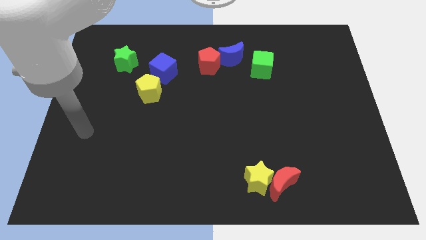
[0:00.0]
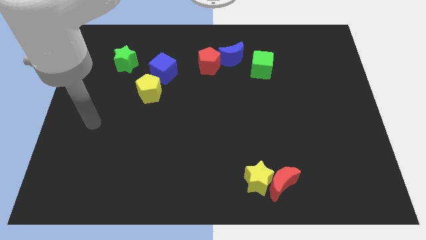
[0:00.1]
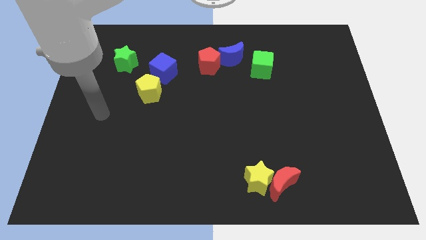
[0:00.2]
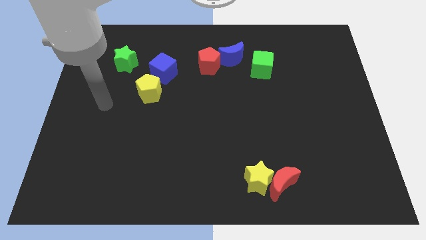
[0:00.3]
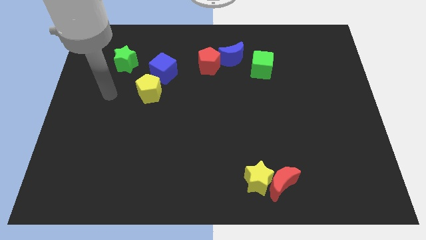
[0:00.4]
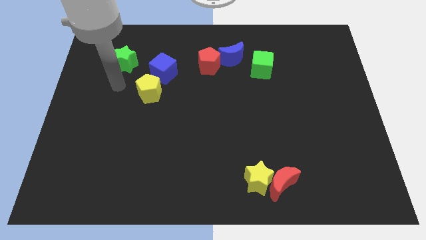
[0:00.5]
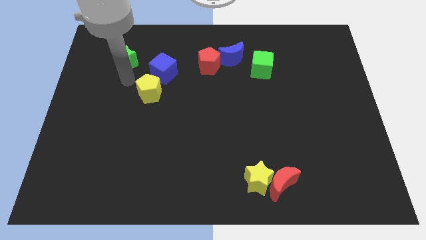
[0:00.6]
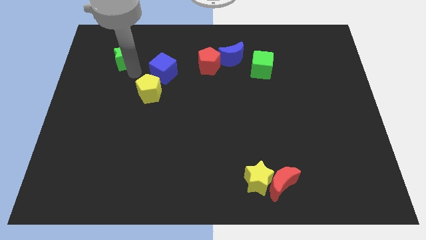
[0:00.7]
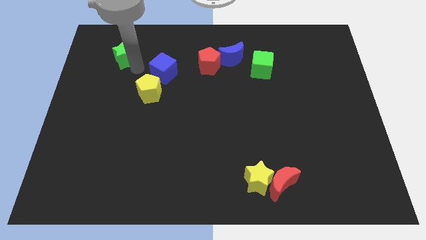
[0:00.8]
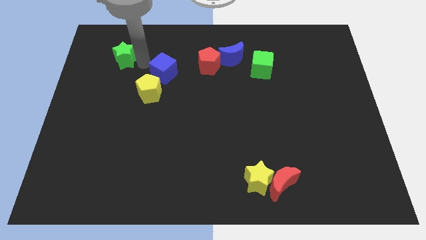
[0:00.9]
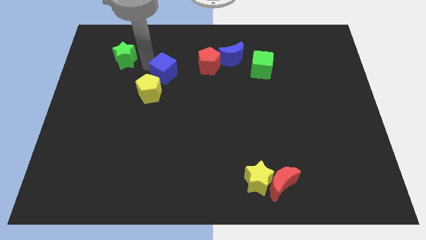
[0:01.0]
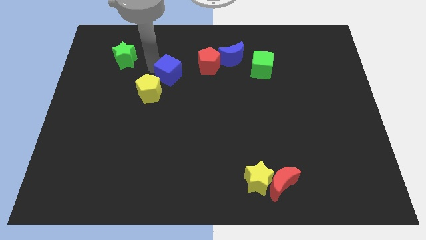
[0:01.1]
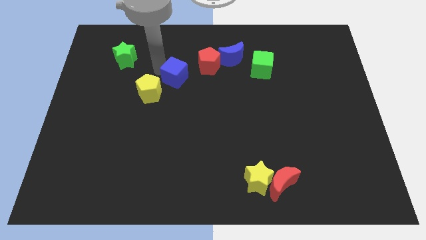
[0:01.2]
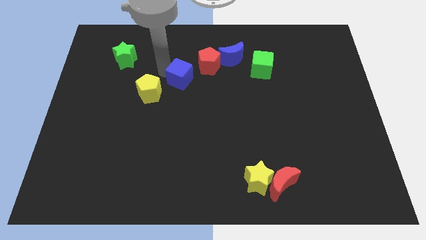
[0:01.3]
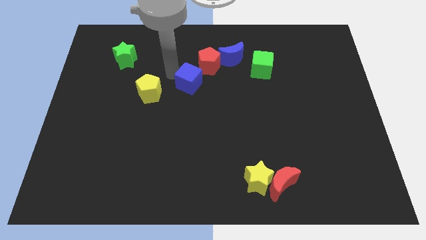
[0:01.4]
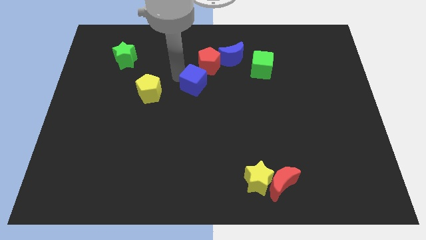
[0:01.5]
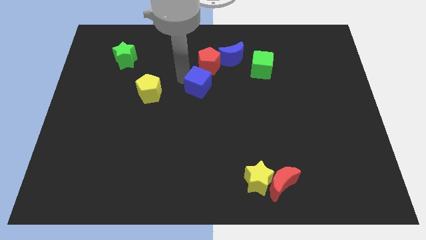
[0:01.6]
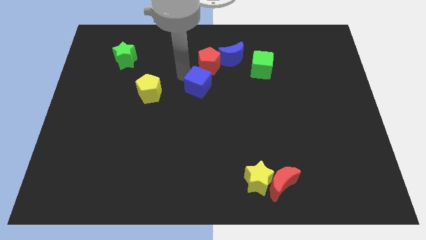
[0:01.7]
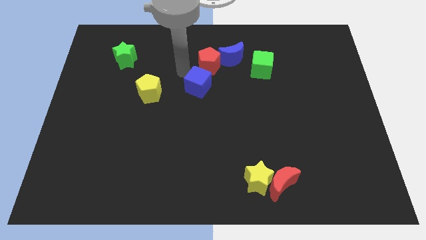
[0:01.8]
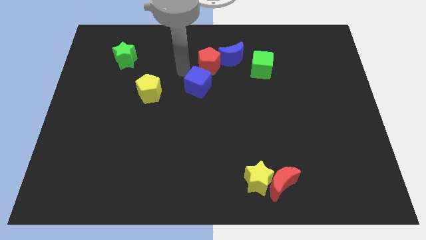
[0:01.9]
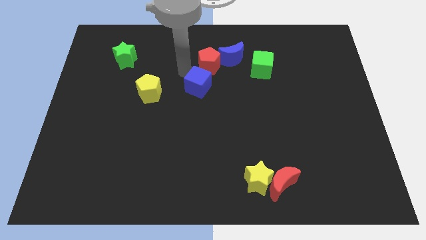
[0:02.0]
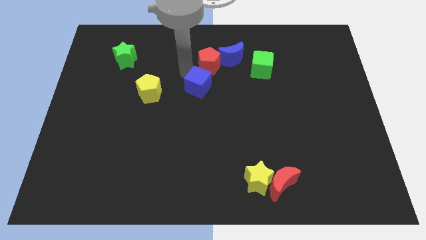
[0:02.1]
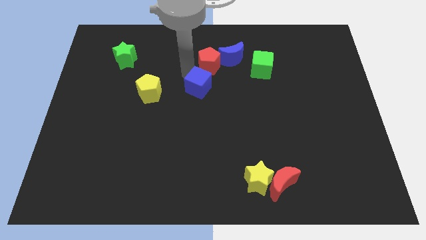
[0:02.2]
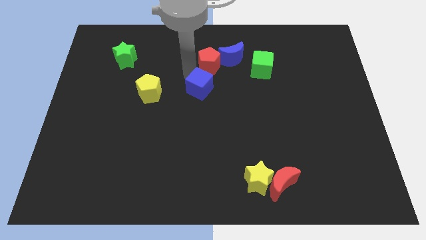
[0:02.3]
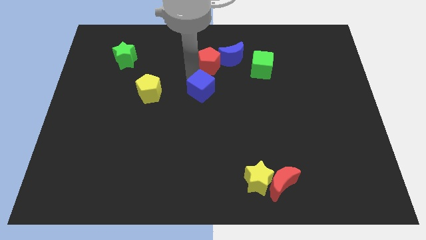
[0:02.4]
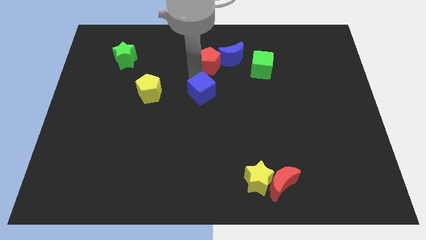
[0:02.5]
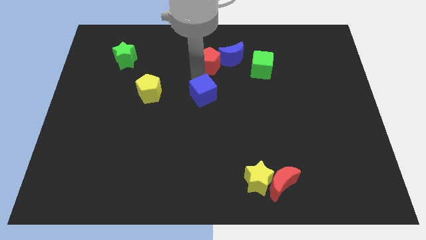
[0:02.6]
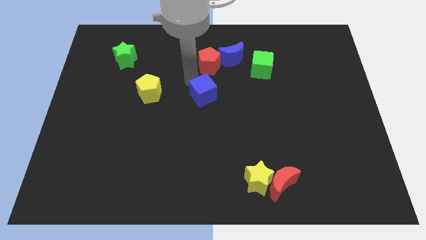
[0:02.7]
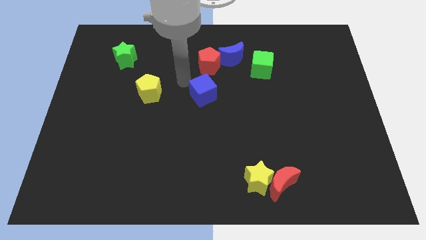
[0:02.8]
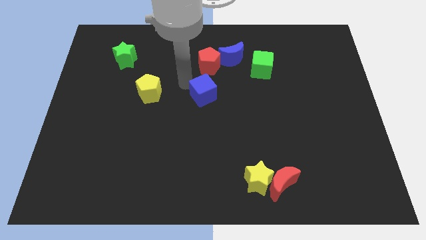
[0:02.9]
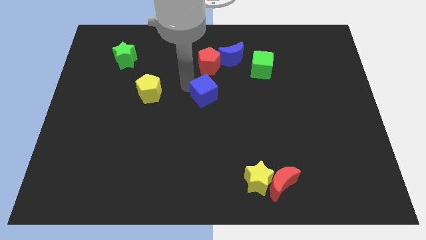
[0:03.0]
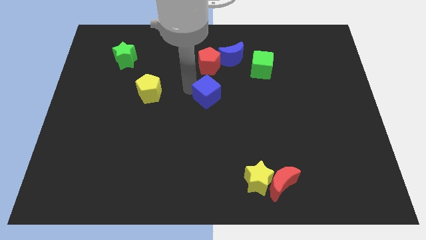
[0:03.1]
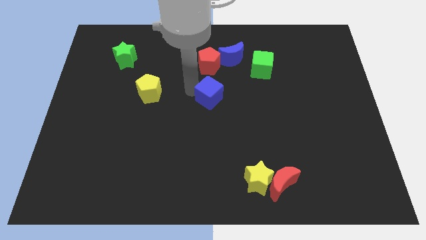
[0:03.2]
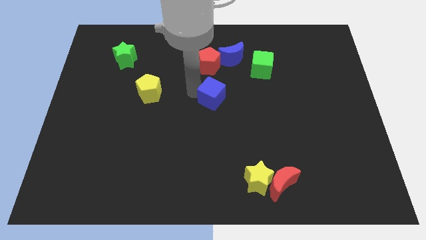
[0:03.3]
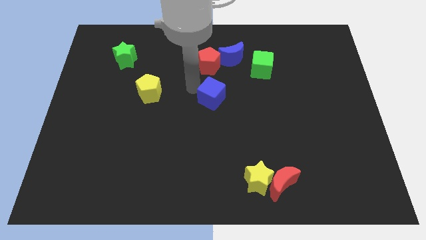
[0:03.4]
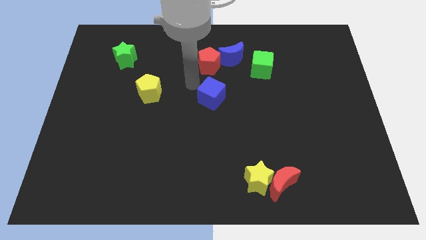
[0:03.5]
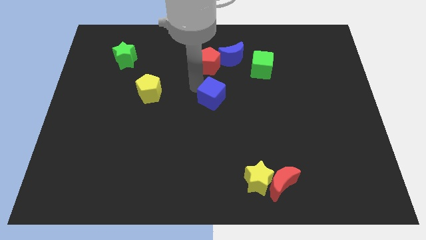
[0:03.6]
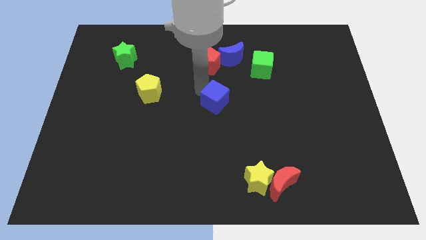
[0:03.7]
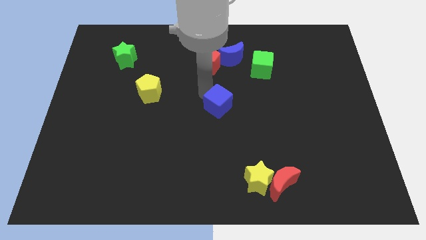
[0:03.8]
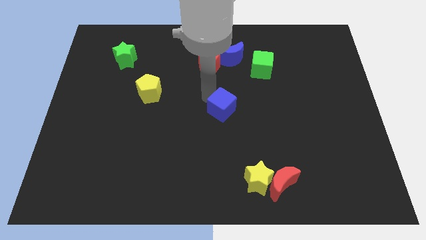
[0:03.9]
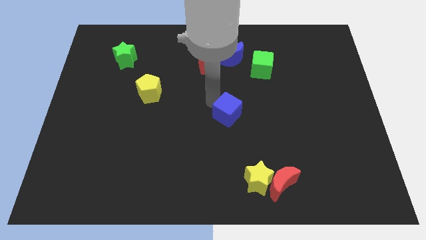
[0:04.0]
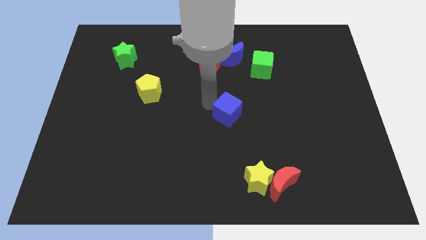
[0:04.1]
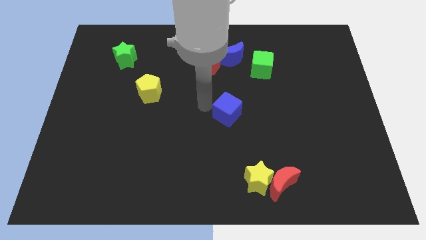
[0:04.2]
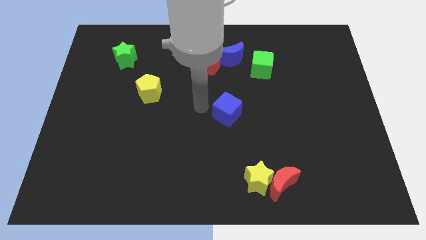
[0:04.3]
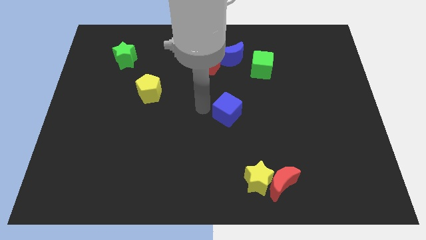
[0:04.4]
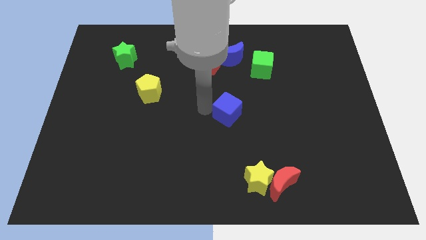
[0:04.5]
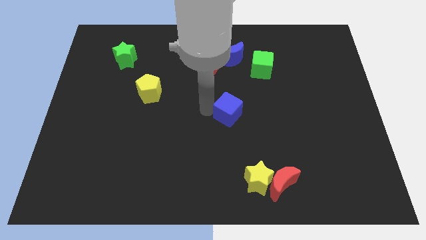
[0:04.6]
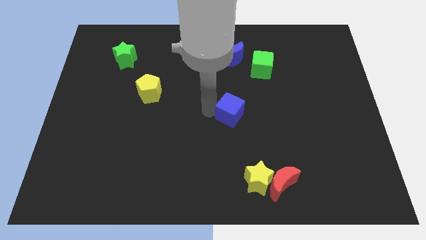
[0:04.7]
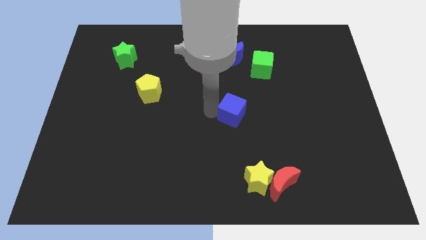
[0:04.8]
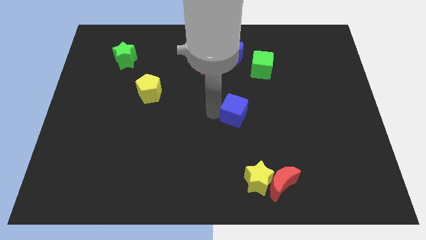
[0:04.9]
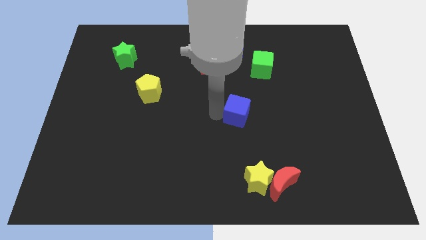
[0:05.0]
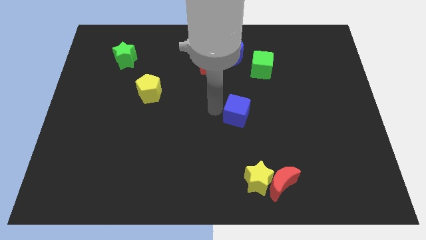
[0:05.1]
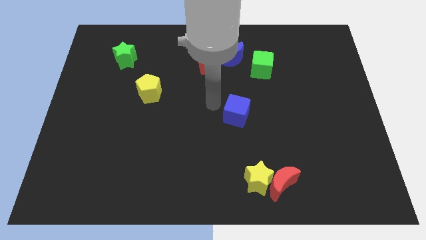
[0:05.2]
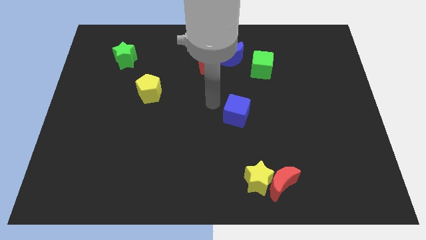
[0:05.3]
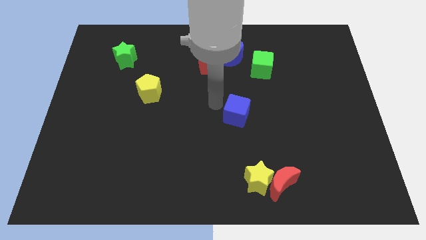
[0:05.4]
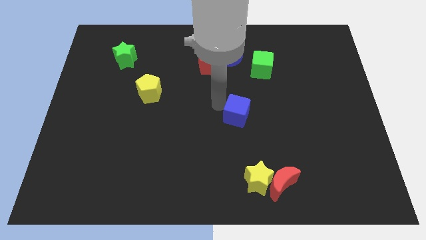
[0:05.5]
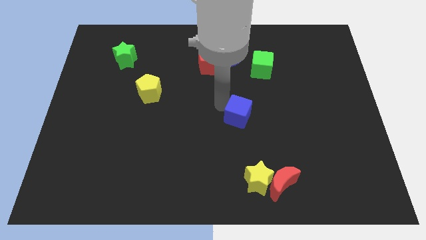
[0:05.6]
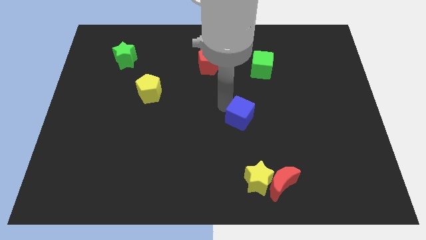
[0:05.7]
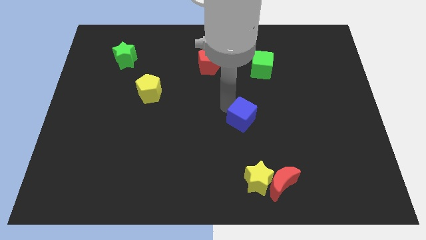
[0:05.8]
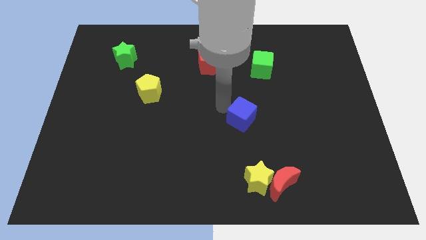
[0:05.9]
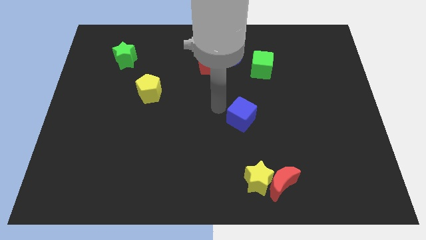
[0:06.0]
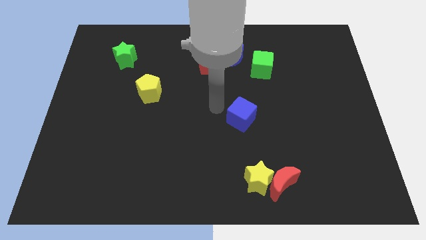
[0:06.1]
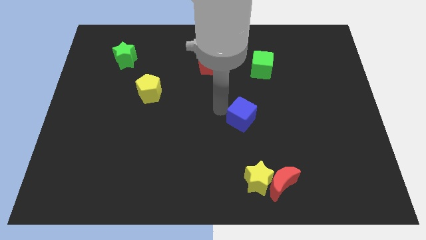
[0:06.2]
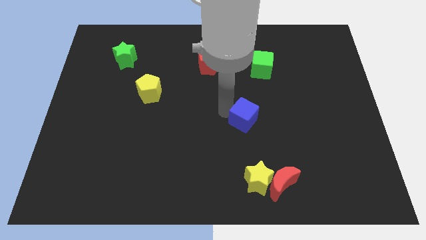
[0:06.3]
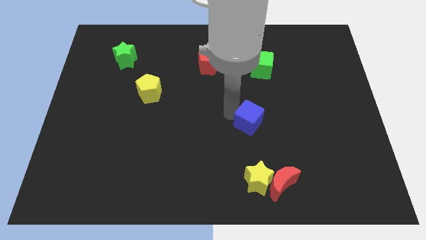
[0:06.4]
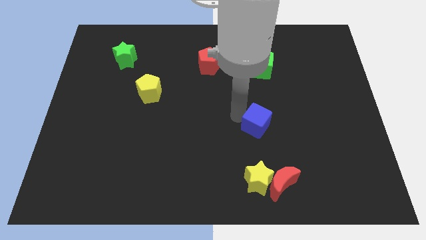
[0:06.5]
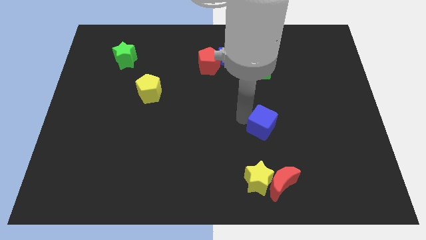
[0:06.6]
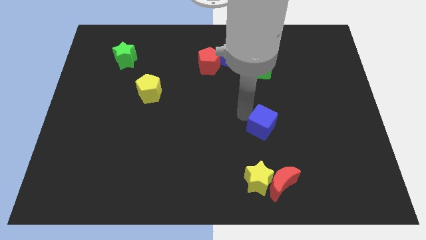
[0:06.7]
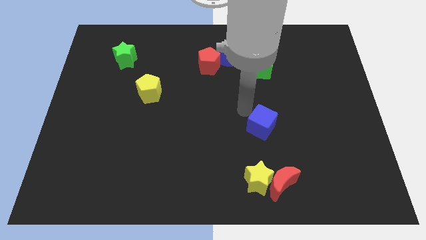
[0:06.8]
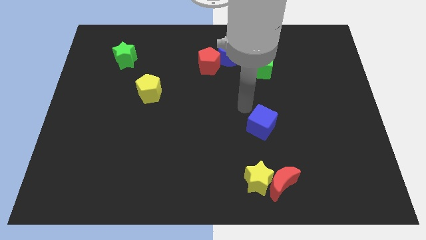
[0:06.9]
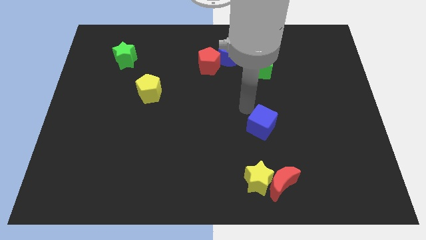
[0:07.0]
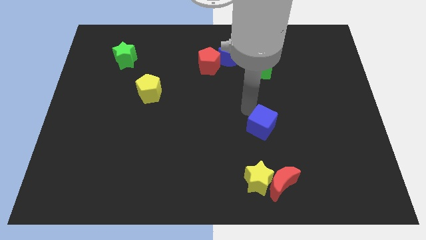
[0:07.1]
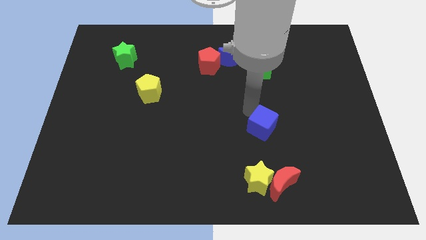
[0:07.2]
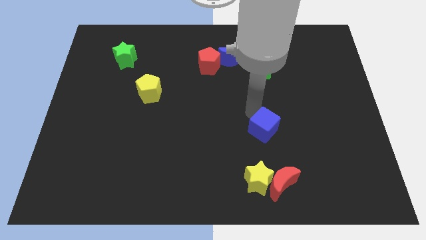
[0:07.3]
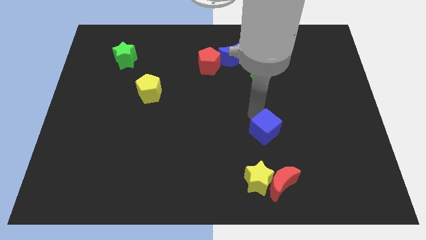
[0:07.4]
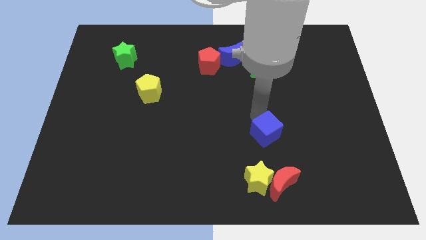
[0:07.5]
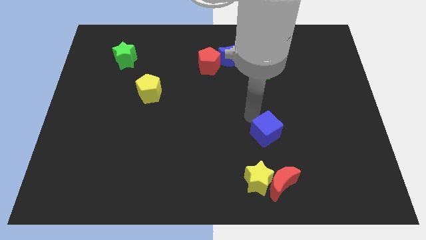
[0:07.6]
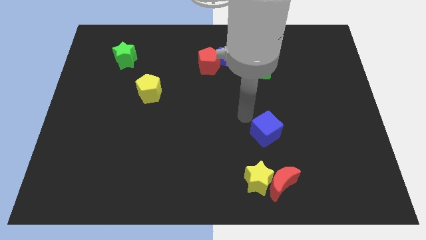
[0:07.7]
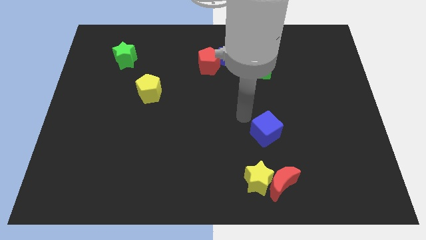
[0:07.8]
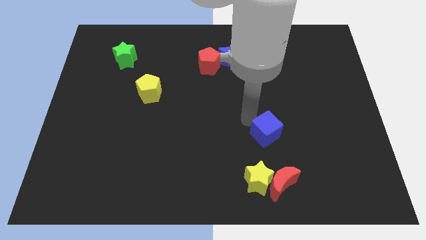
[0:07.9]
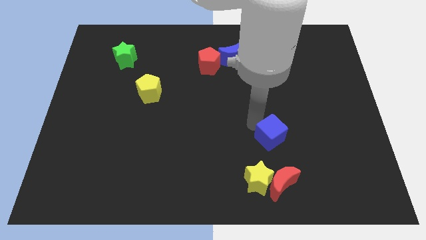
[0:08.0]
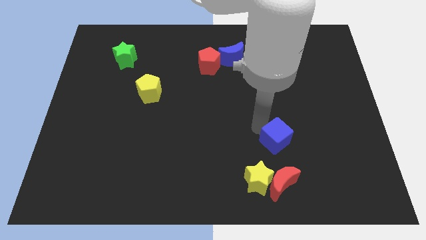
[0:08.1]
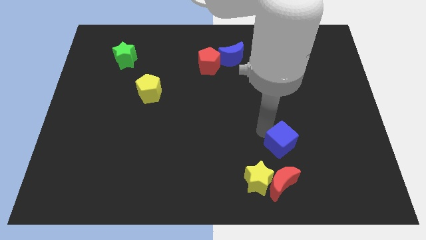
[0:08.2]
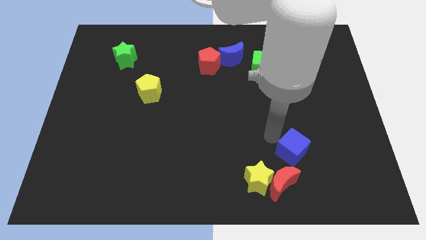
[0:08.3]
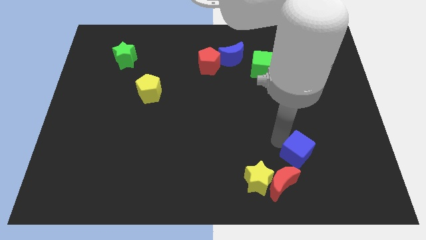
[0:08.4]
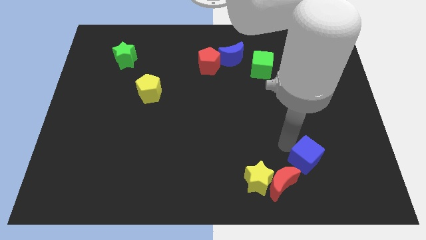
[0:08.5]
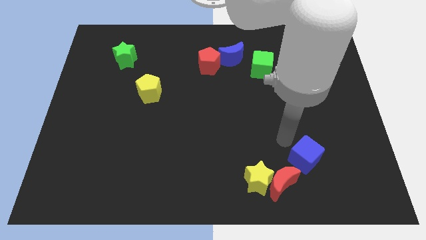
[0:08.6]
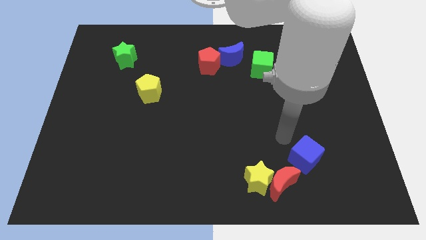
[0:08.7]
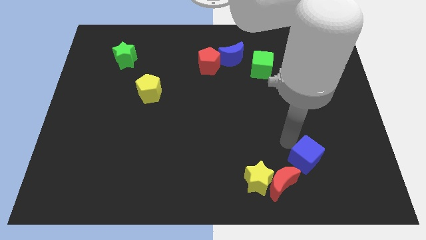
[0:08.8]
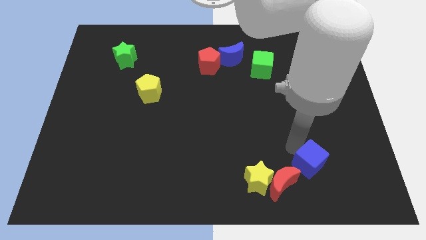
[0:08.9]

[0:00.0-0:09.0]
push the blue cube to the right side of the red moon
